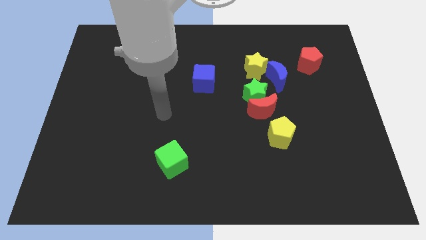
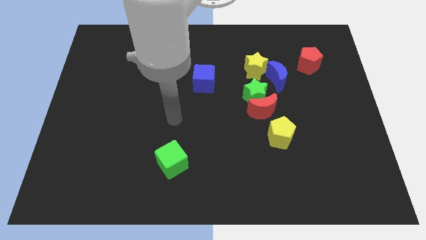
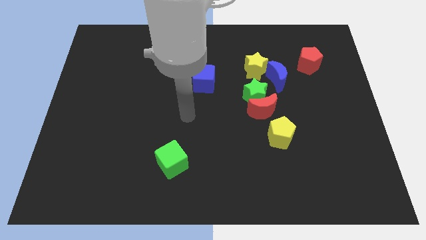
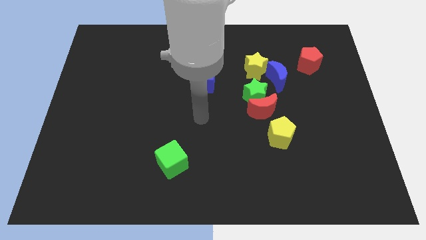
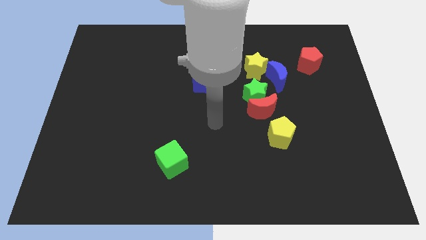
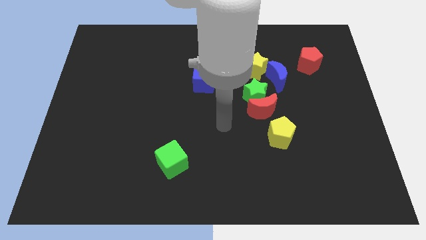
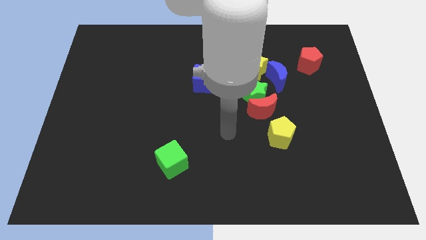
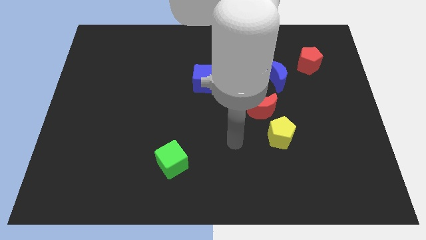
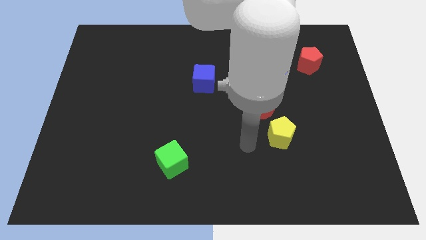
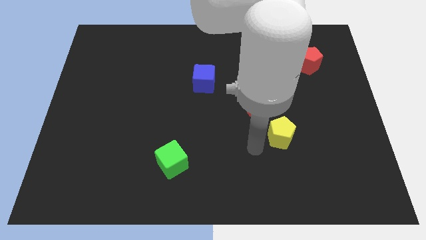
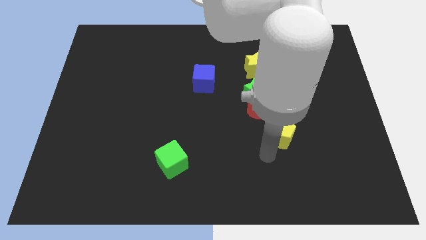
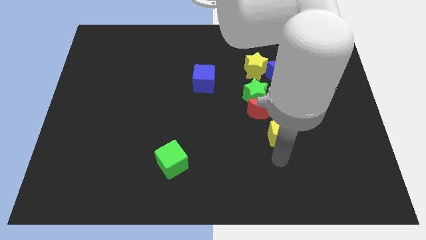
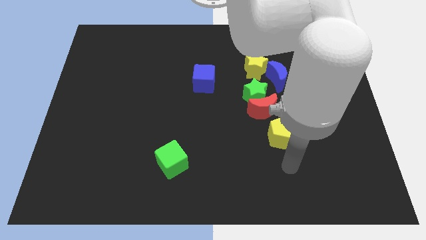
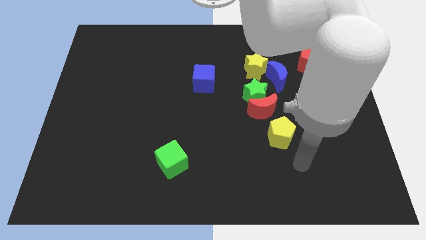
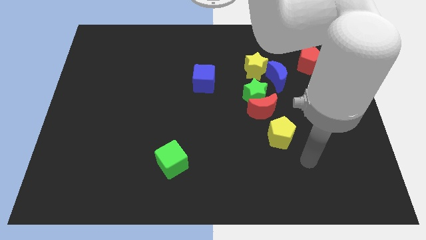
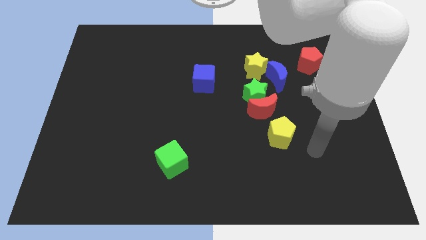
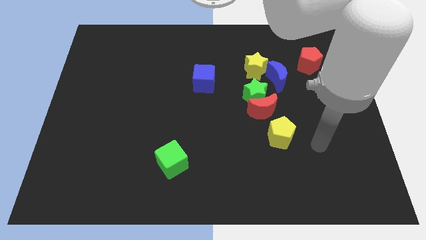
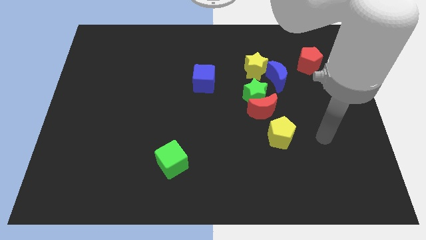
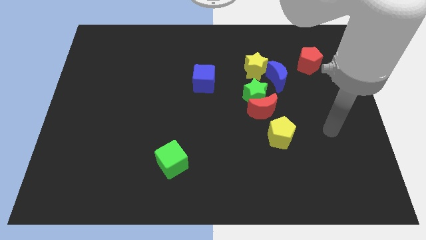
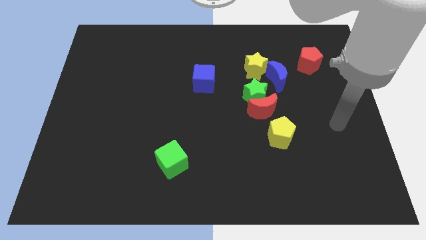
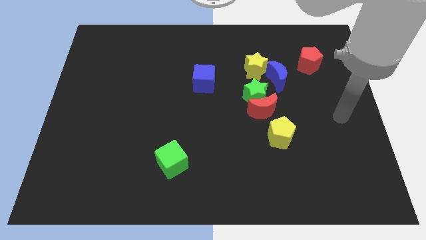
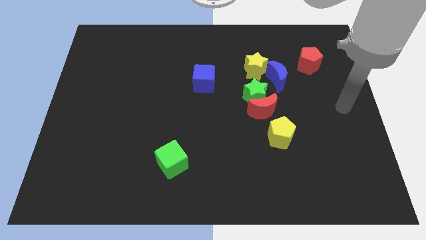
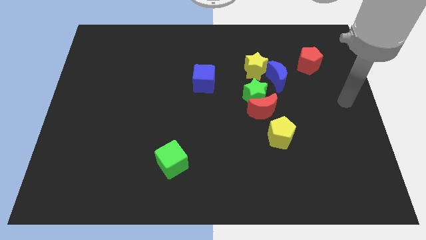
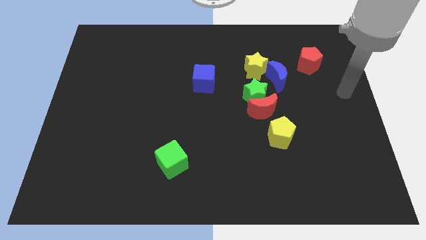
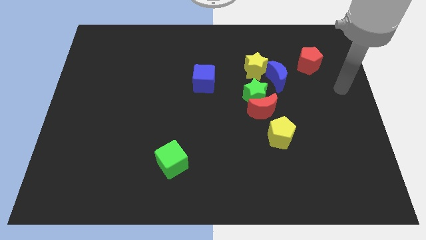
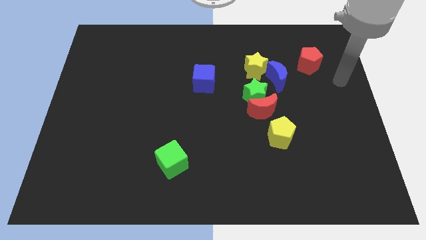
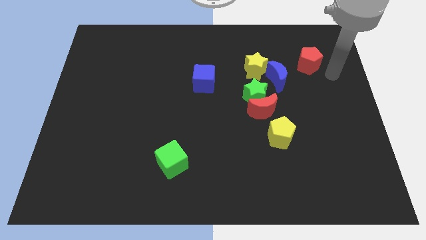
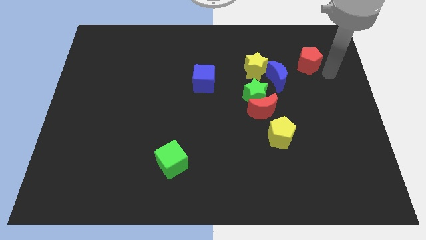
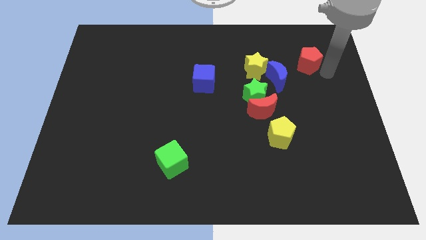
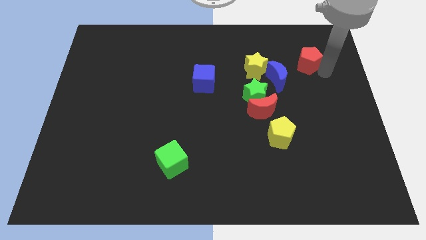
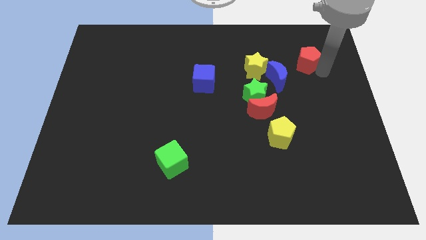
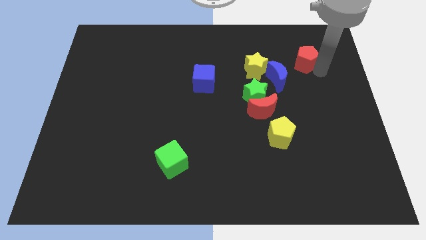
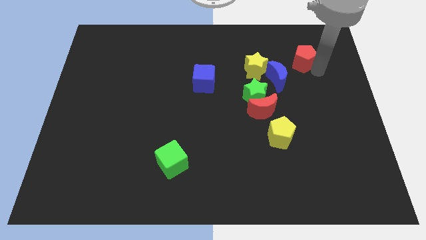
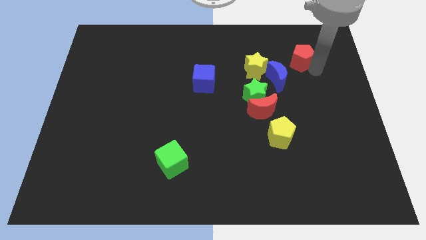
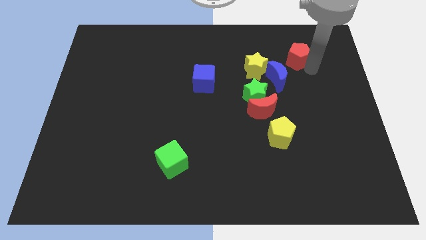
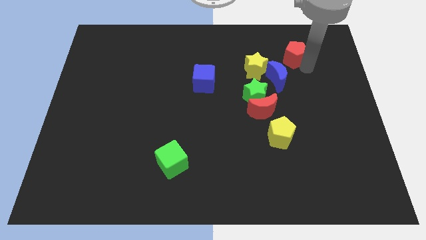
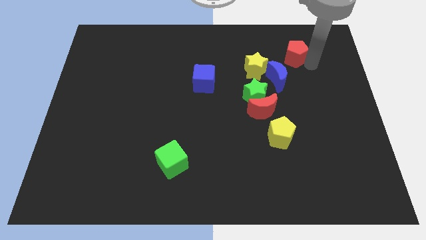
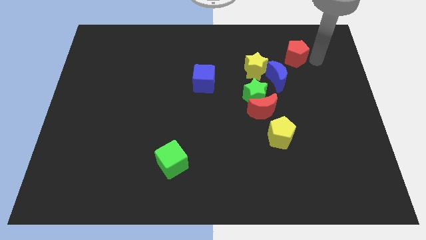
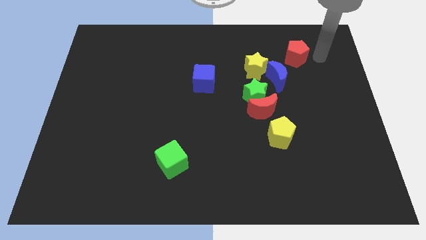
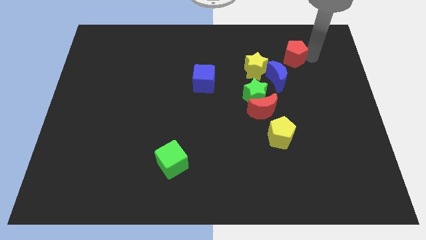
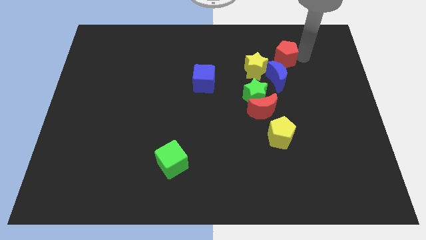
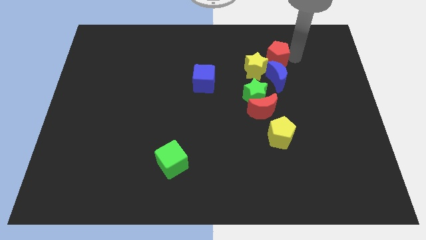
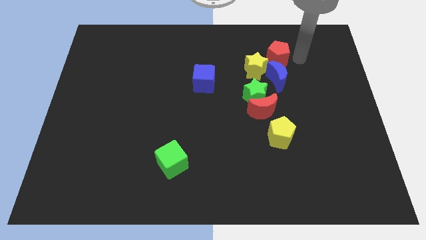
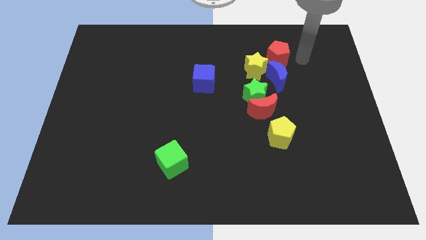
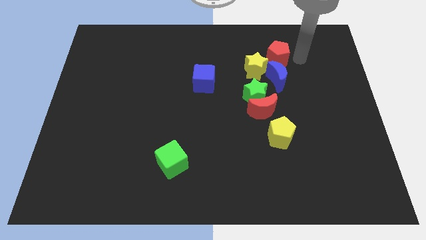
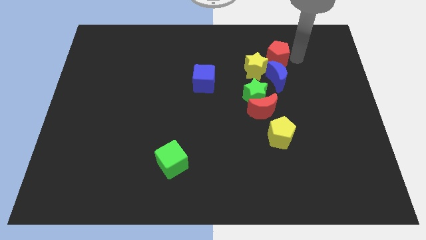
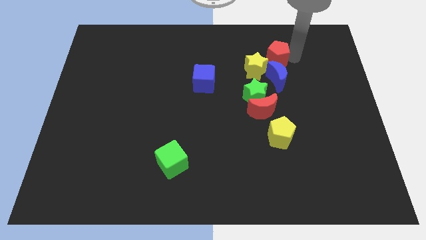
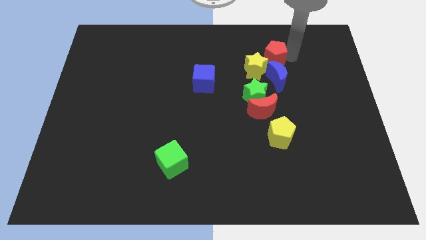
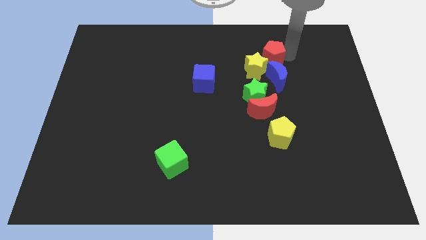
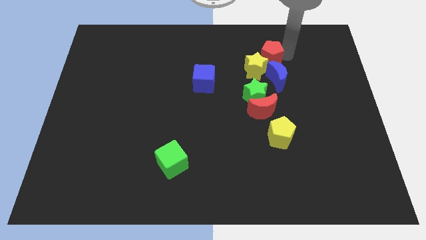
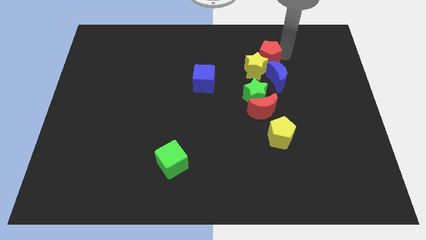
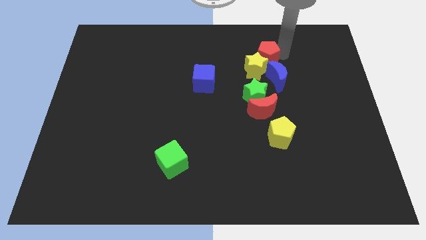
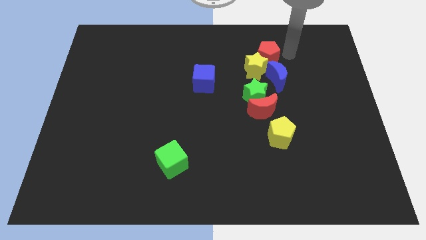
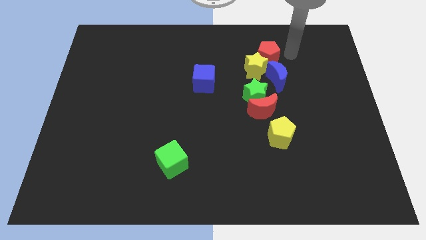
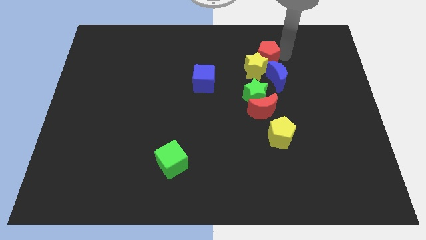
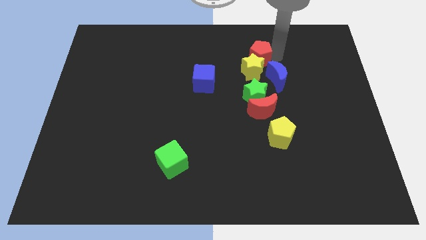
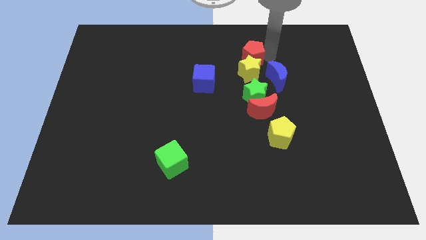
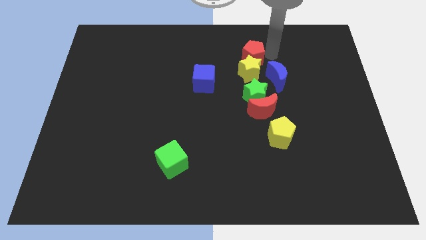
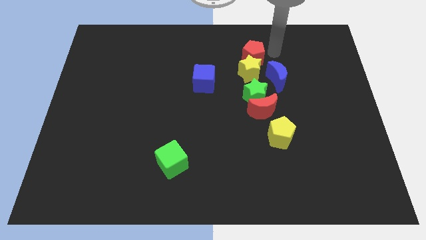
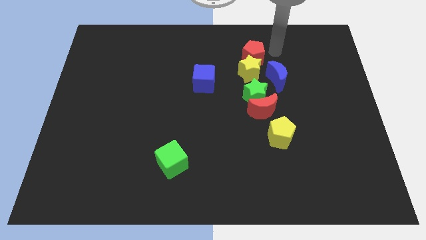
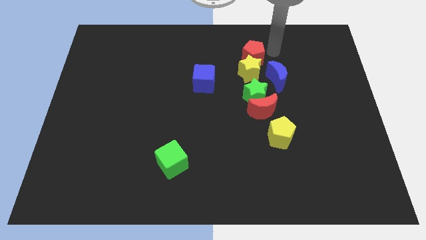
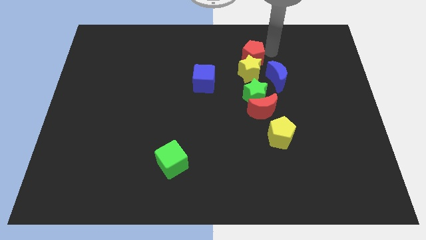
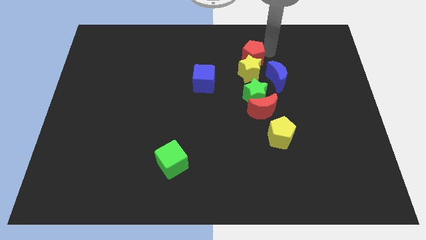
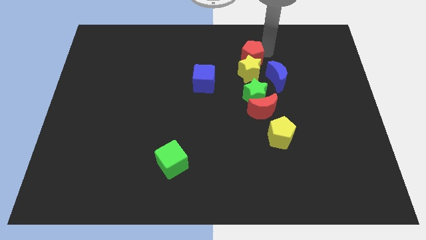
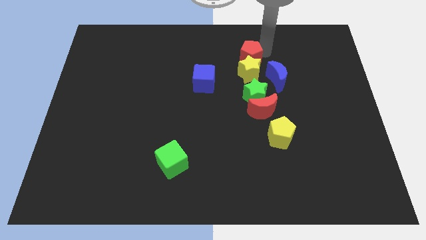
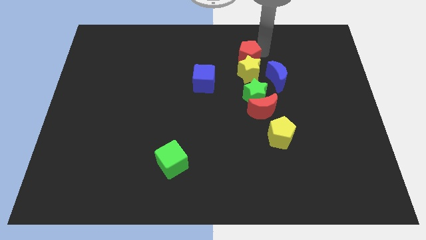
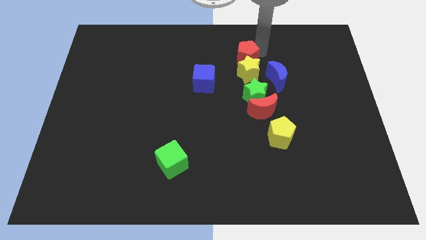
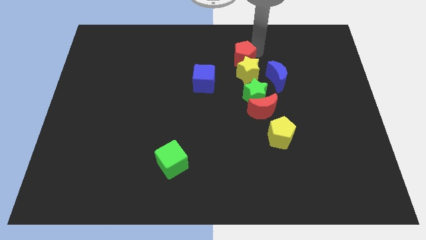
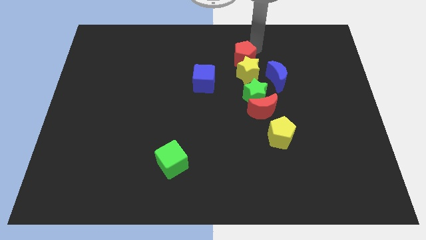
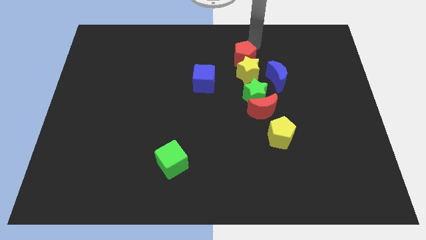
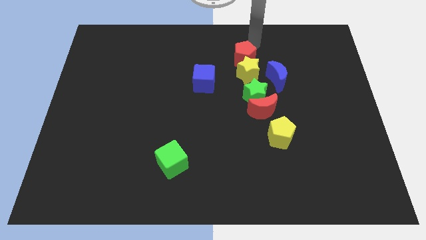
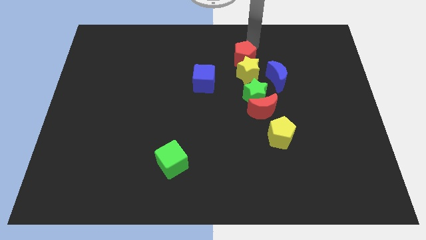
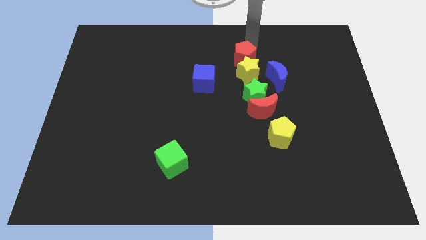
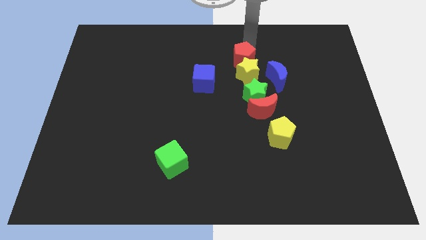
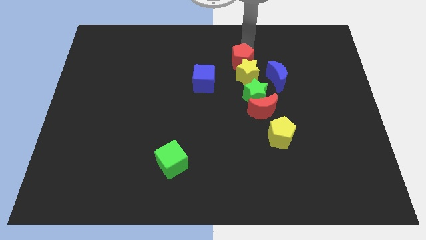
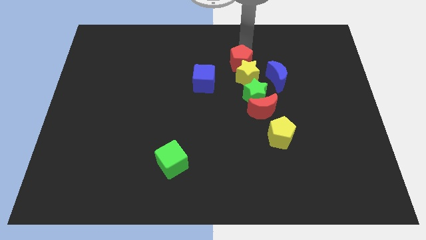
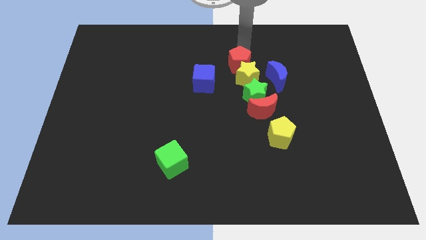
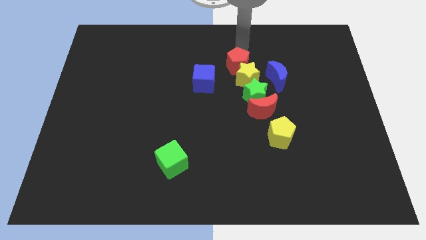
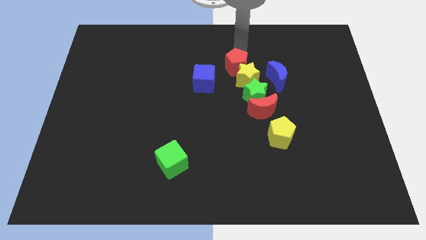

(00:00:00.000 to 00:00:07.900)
slide the red pentagon to the center
